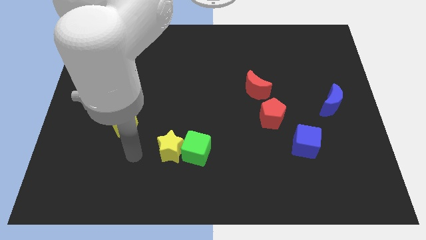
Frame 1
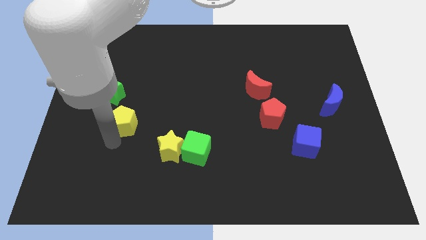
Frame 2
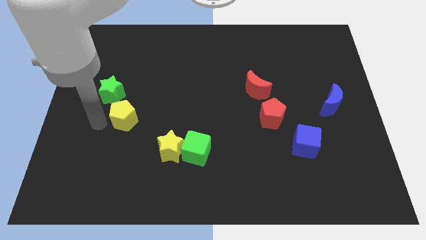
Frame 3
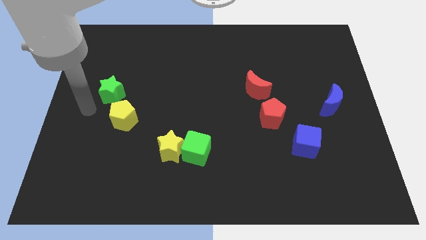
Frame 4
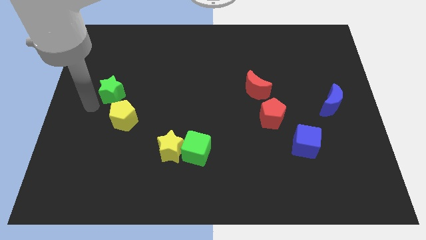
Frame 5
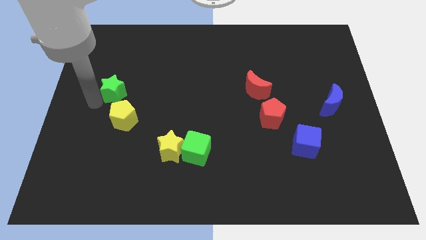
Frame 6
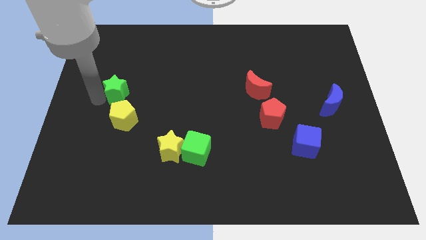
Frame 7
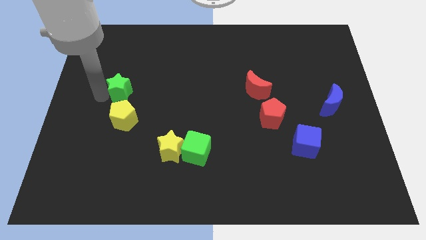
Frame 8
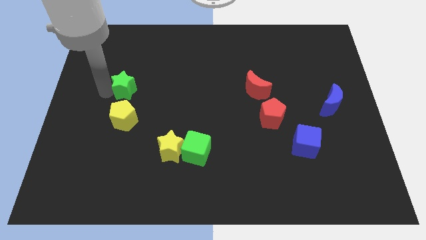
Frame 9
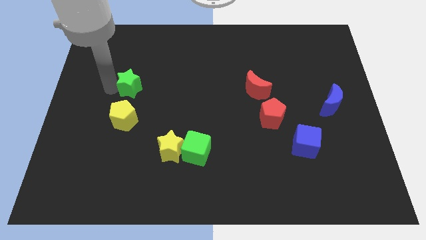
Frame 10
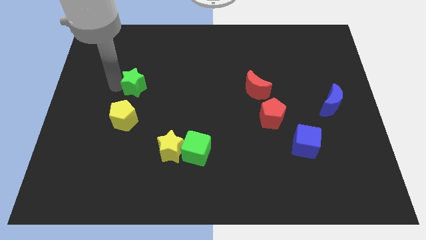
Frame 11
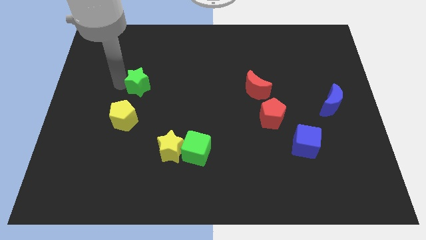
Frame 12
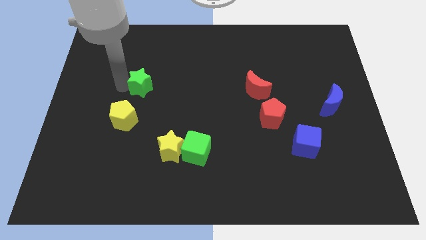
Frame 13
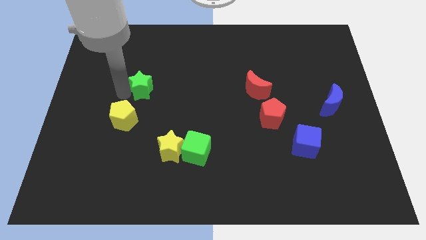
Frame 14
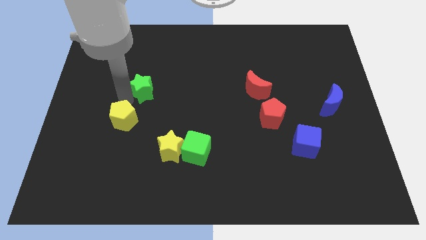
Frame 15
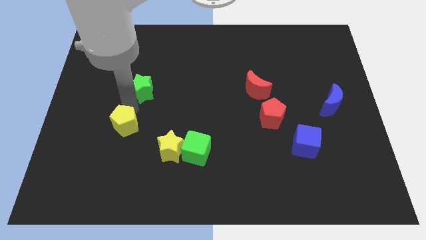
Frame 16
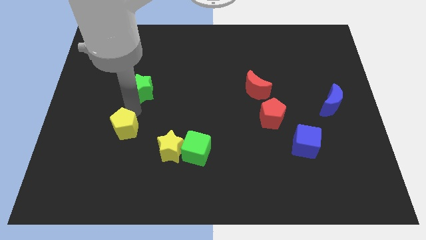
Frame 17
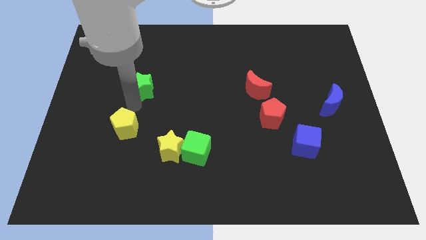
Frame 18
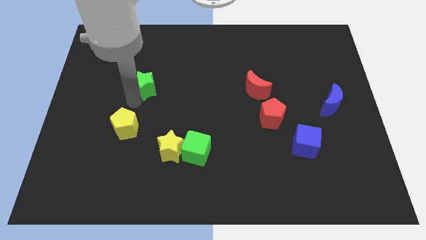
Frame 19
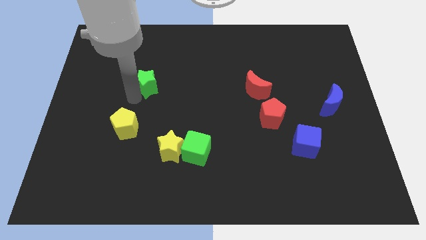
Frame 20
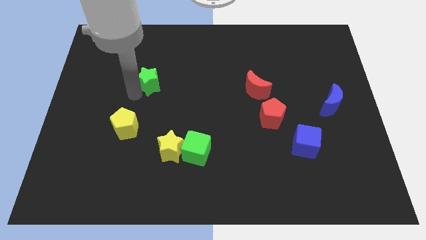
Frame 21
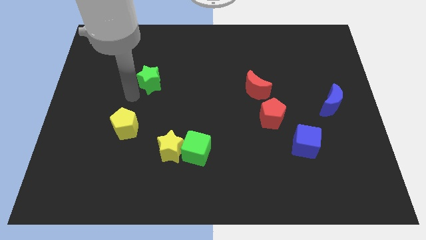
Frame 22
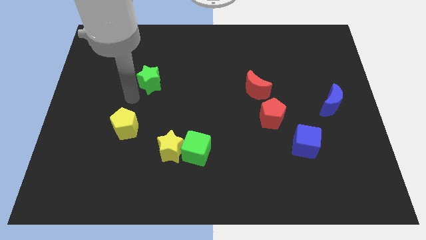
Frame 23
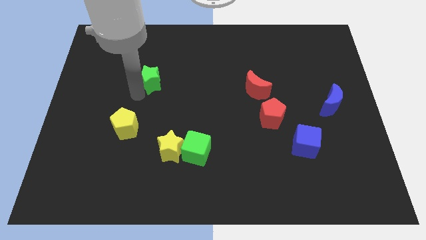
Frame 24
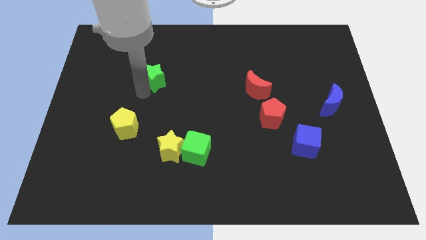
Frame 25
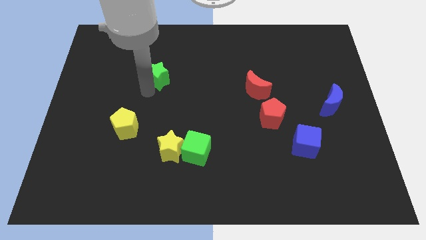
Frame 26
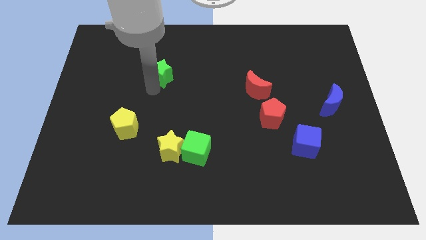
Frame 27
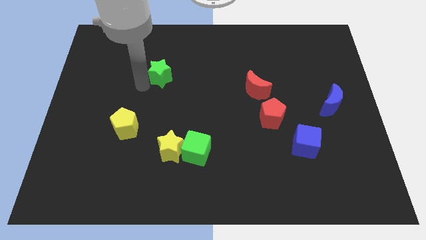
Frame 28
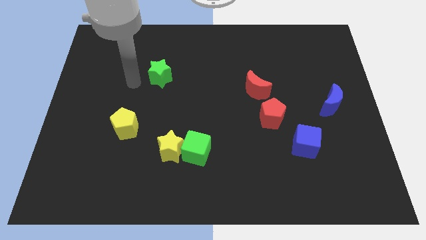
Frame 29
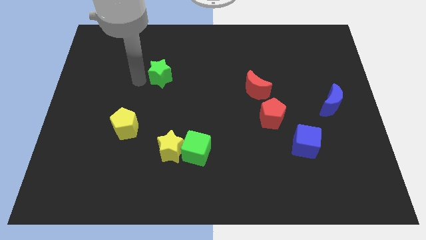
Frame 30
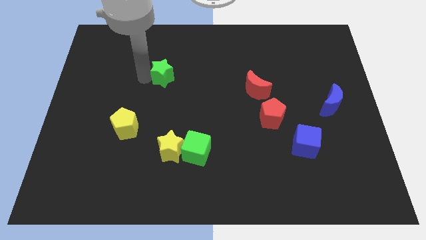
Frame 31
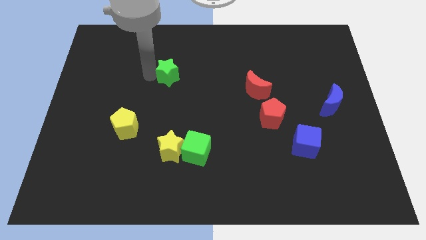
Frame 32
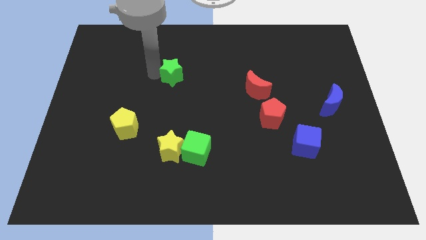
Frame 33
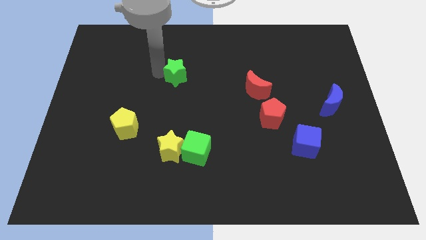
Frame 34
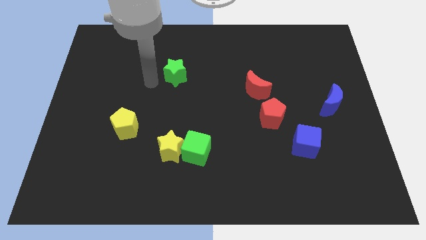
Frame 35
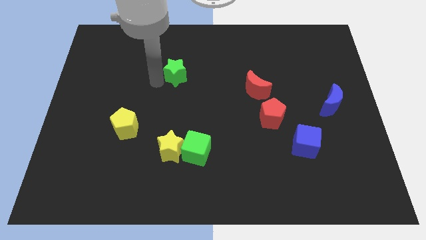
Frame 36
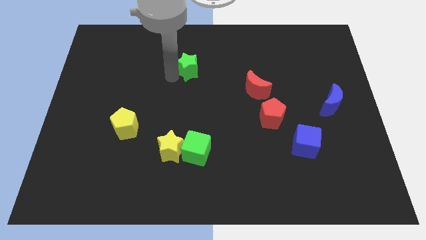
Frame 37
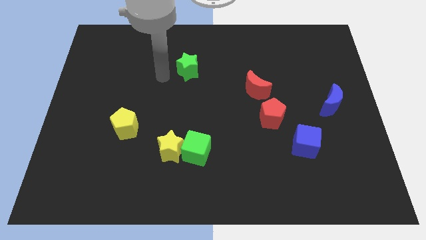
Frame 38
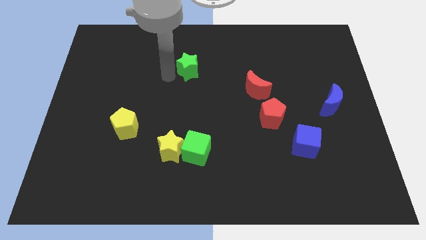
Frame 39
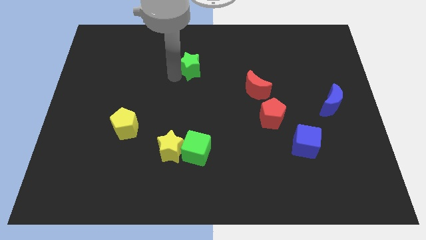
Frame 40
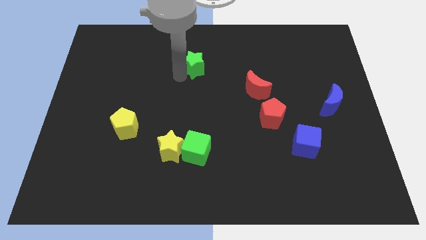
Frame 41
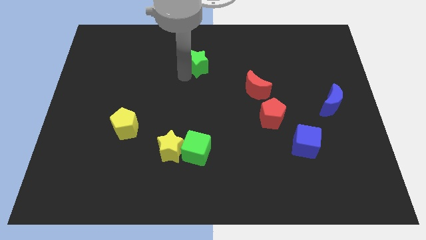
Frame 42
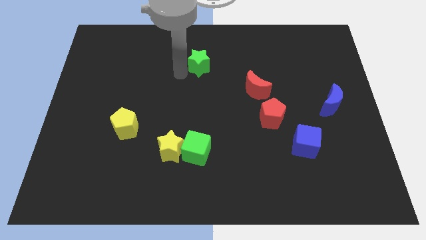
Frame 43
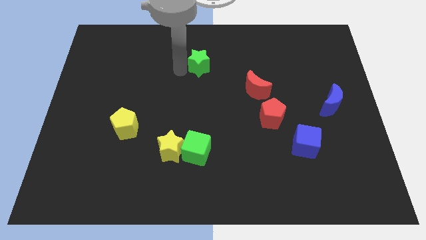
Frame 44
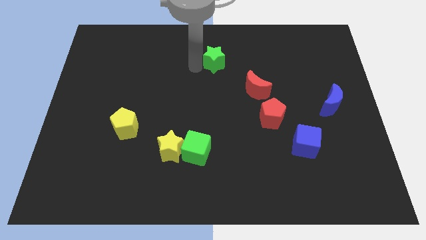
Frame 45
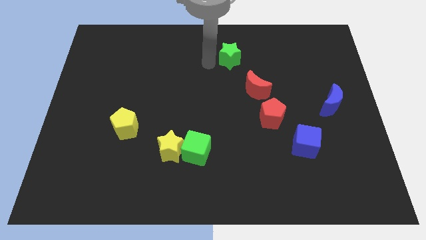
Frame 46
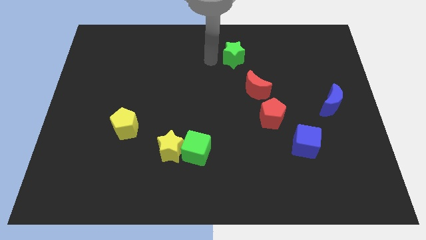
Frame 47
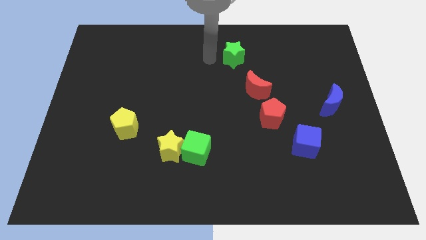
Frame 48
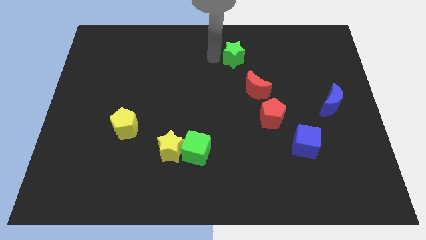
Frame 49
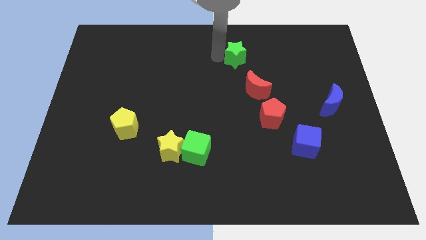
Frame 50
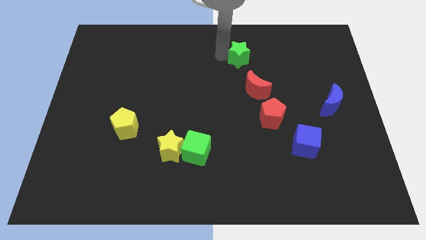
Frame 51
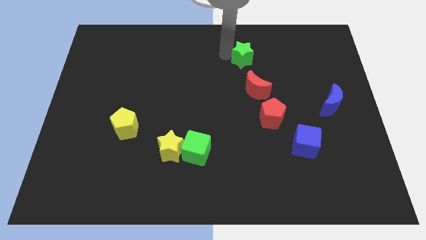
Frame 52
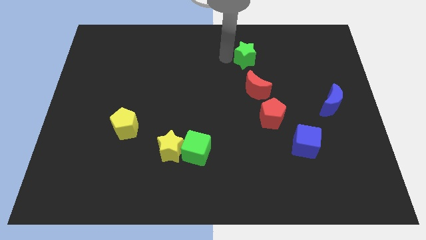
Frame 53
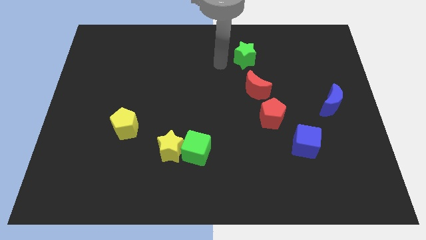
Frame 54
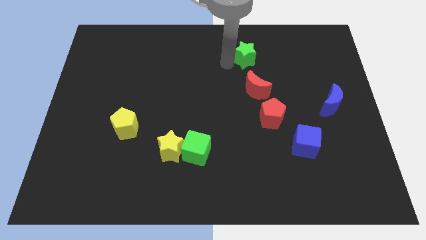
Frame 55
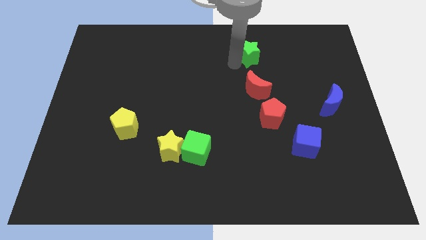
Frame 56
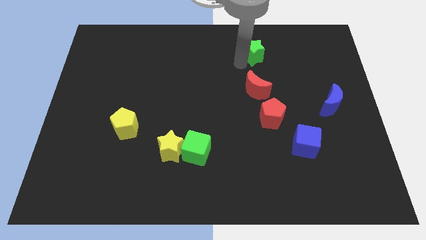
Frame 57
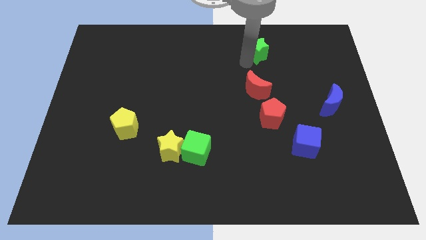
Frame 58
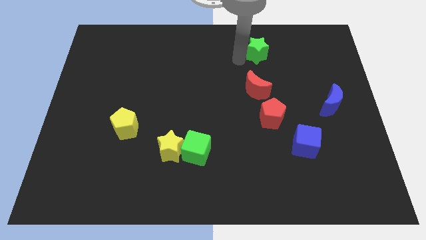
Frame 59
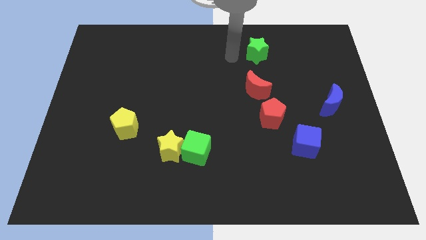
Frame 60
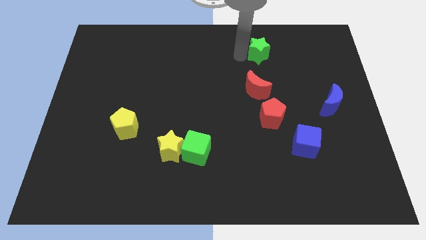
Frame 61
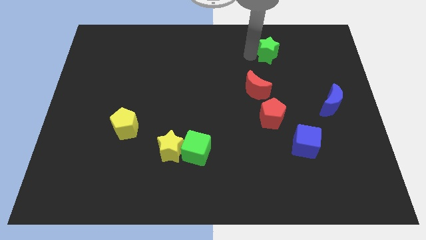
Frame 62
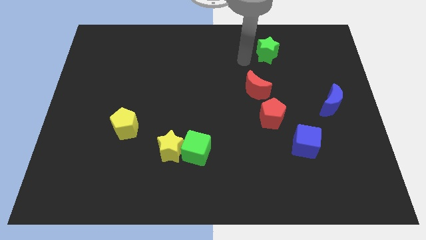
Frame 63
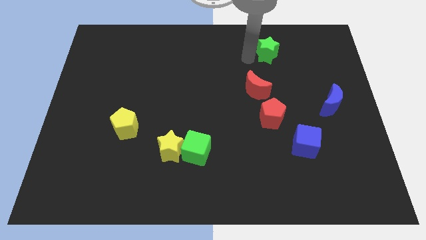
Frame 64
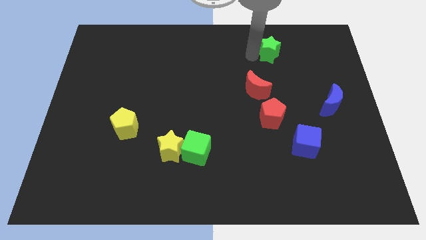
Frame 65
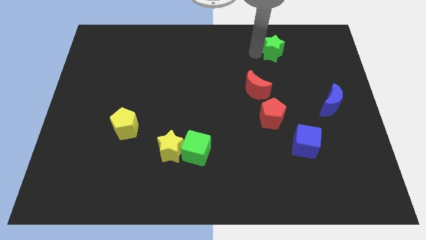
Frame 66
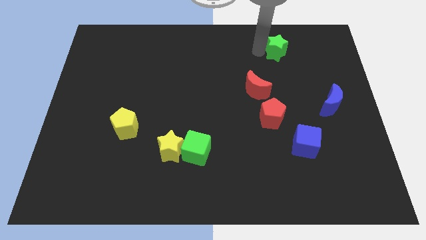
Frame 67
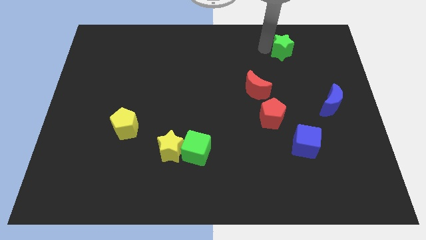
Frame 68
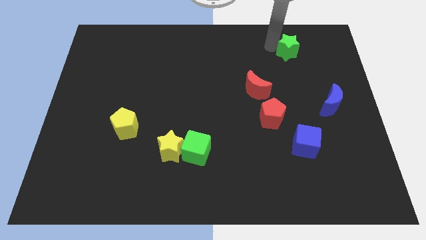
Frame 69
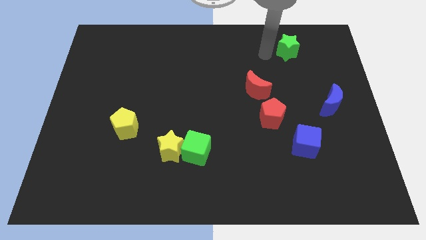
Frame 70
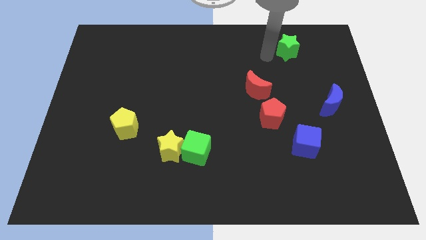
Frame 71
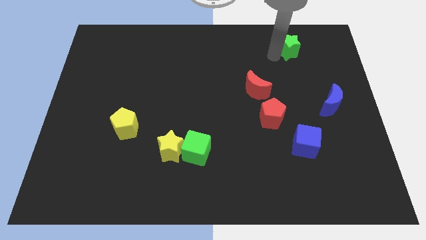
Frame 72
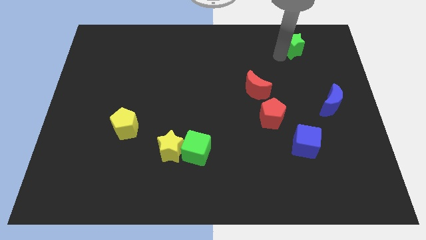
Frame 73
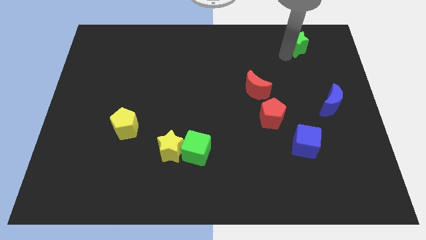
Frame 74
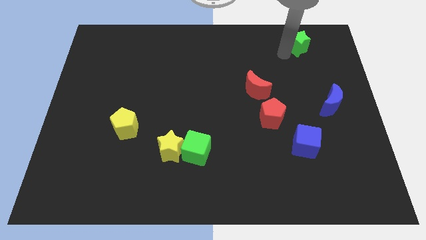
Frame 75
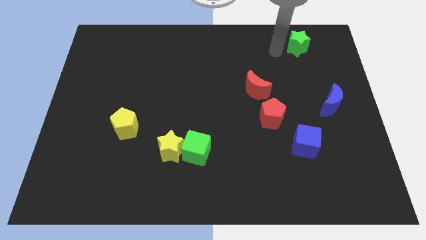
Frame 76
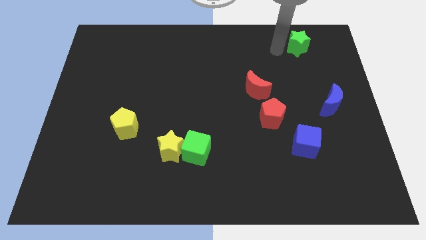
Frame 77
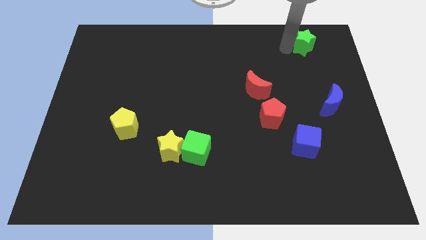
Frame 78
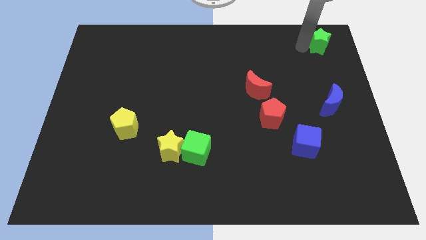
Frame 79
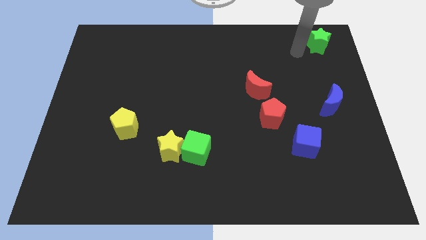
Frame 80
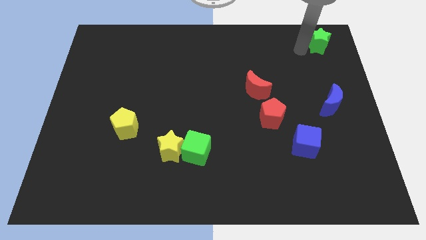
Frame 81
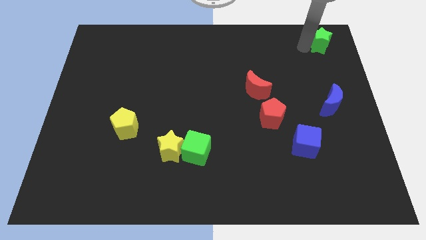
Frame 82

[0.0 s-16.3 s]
move the green star to the upper right corner
